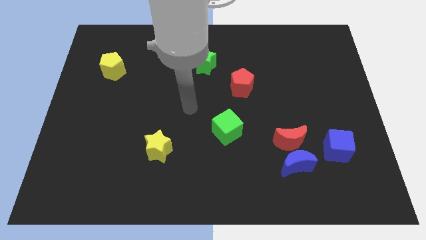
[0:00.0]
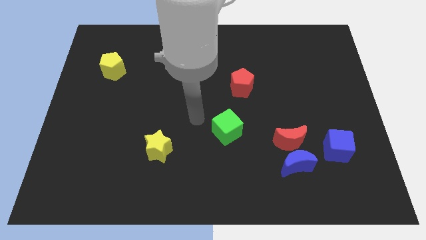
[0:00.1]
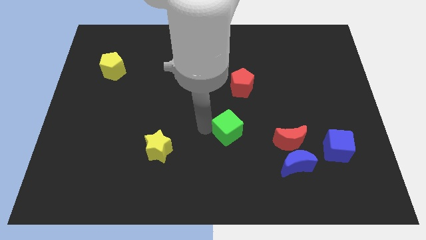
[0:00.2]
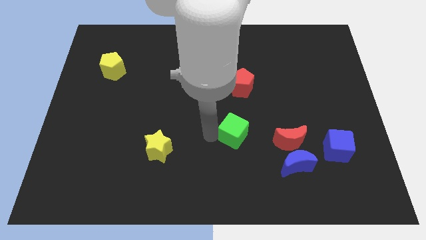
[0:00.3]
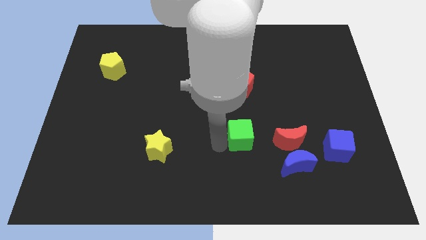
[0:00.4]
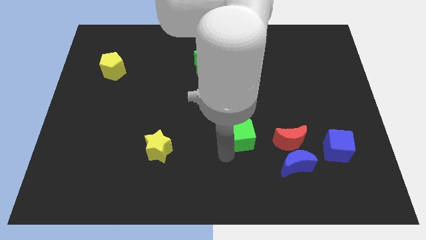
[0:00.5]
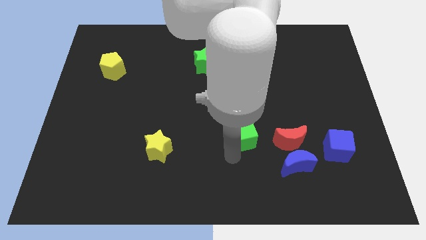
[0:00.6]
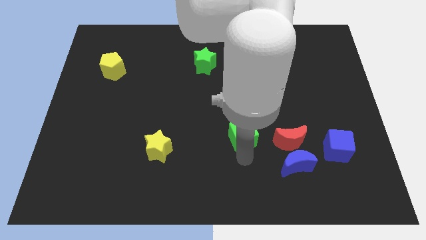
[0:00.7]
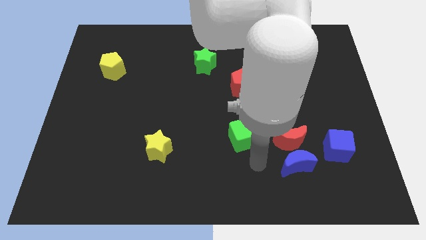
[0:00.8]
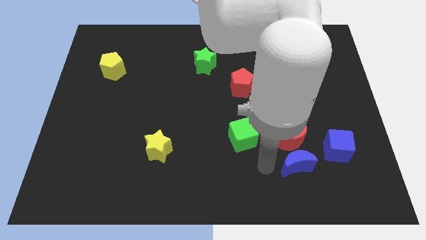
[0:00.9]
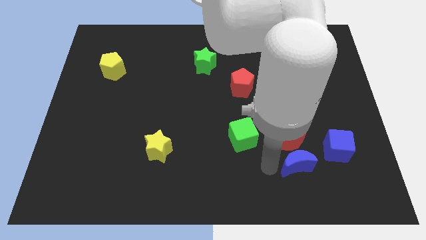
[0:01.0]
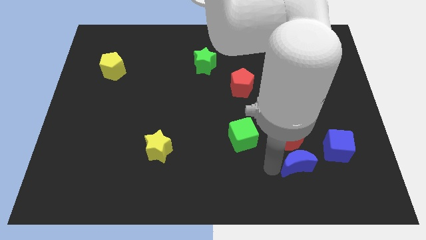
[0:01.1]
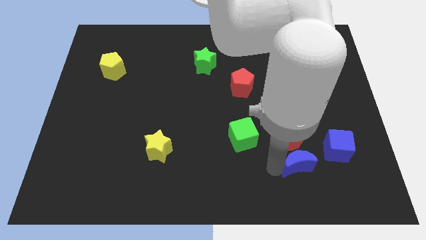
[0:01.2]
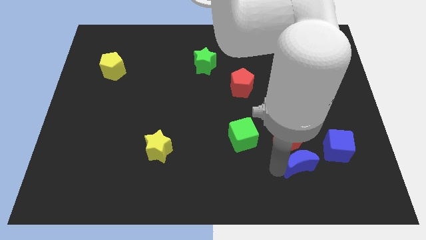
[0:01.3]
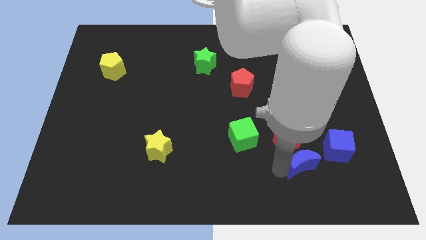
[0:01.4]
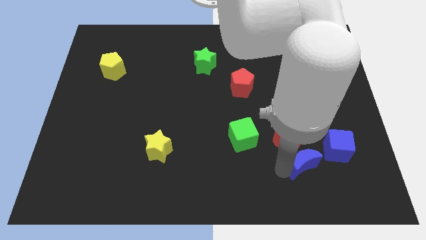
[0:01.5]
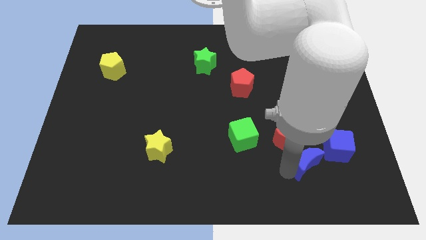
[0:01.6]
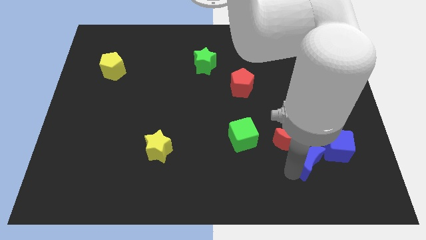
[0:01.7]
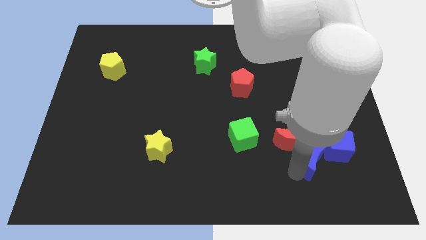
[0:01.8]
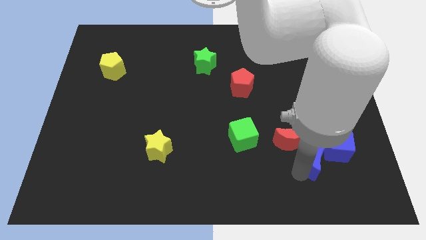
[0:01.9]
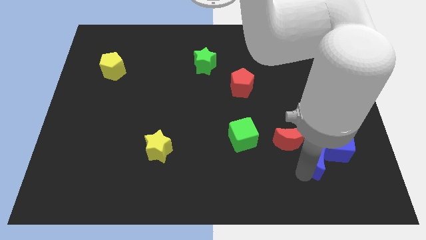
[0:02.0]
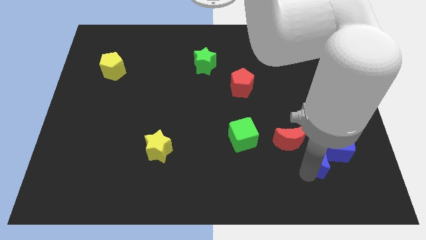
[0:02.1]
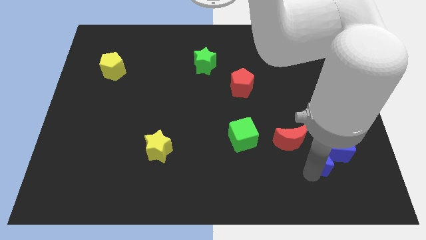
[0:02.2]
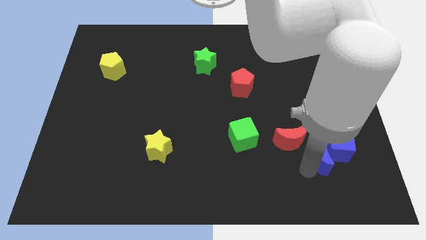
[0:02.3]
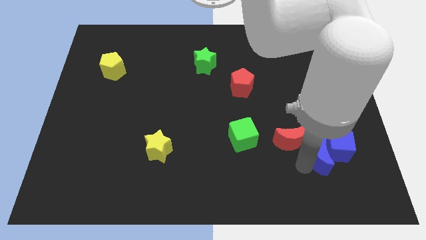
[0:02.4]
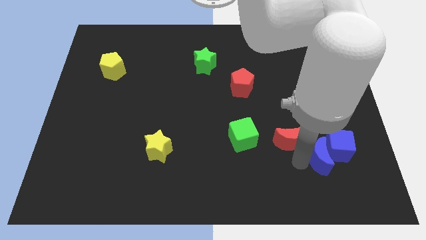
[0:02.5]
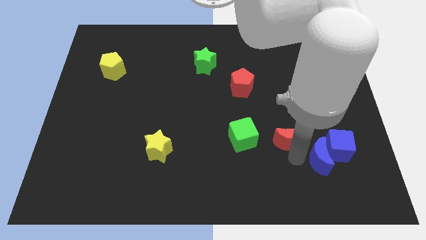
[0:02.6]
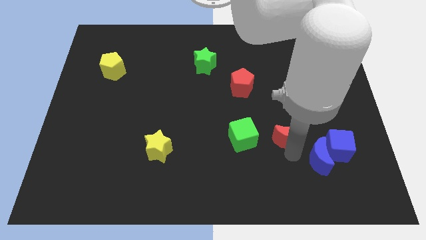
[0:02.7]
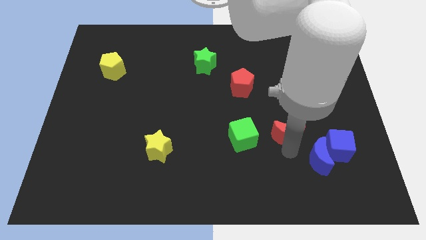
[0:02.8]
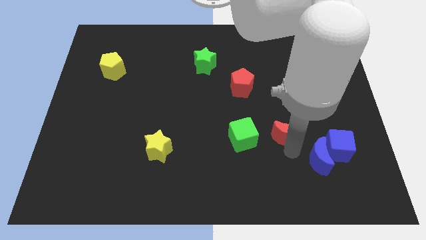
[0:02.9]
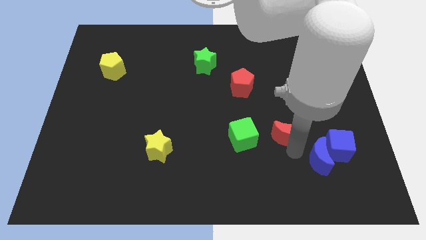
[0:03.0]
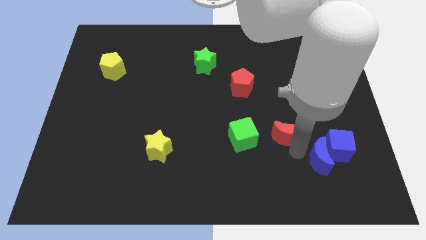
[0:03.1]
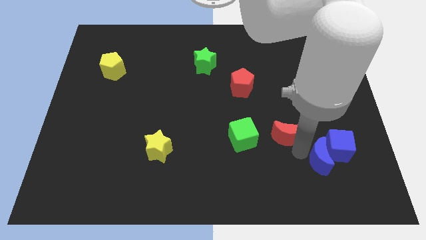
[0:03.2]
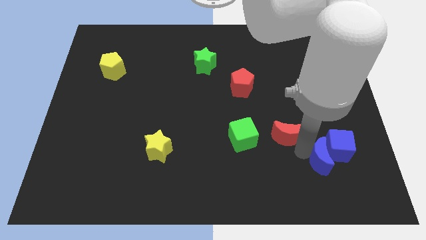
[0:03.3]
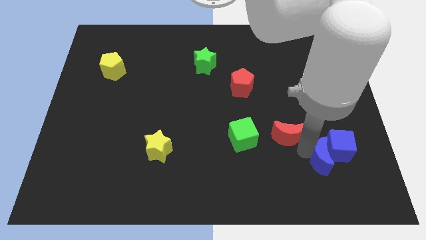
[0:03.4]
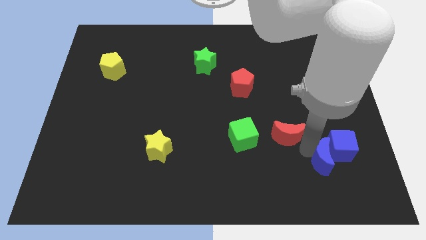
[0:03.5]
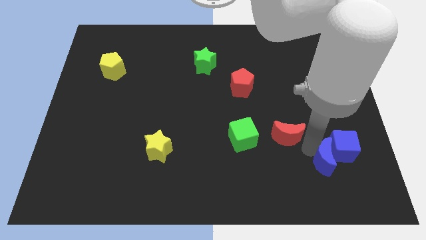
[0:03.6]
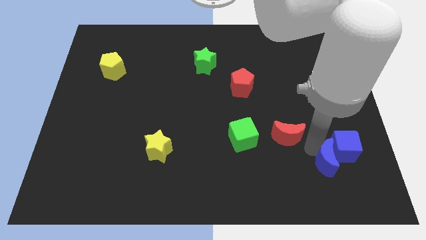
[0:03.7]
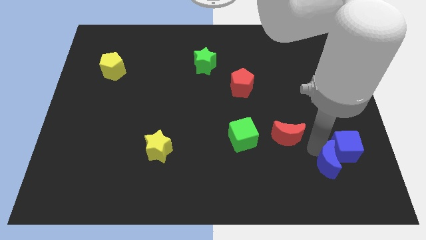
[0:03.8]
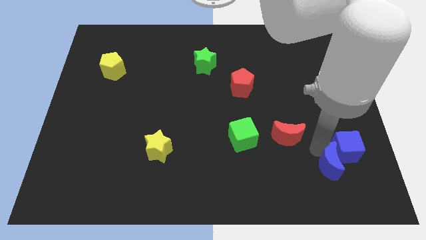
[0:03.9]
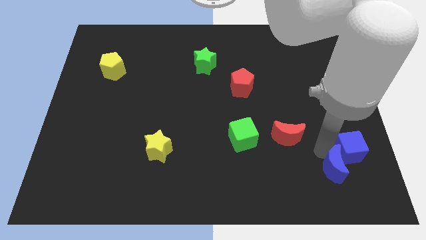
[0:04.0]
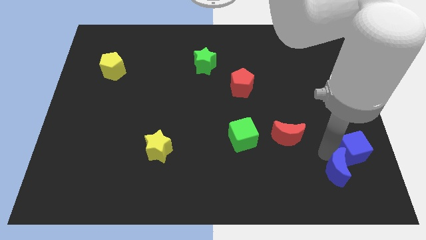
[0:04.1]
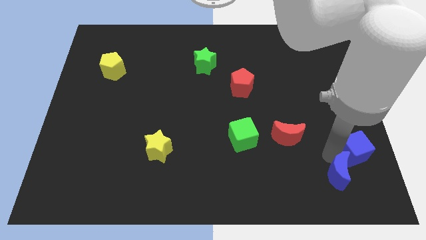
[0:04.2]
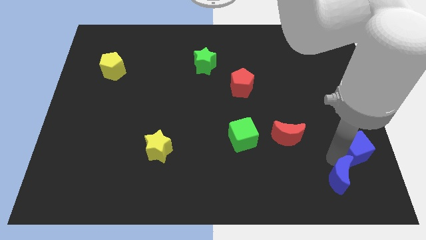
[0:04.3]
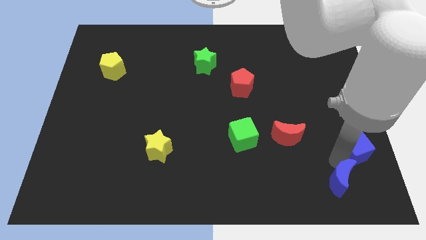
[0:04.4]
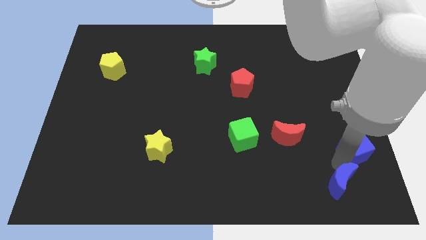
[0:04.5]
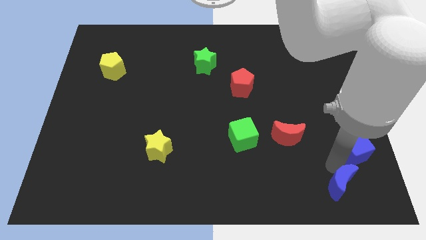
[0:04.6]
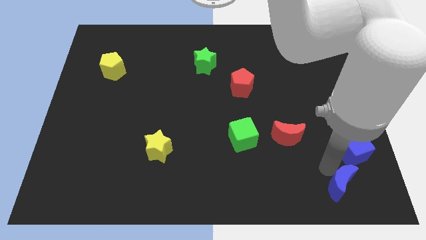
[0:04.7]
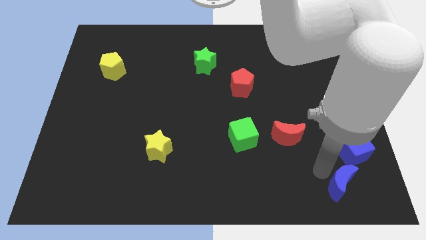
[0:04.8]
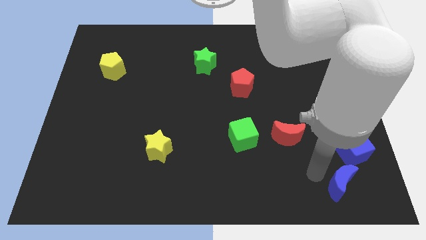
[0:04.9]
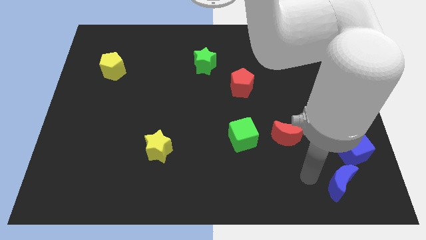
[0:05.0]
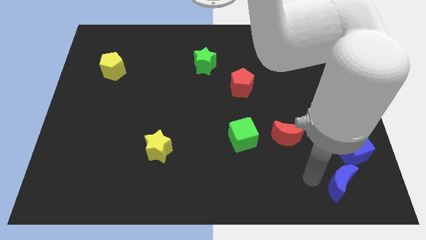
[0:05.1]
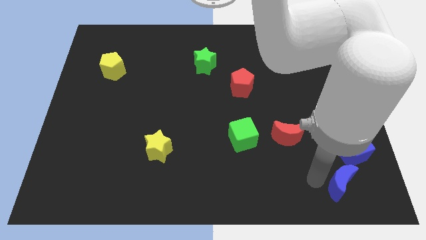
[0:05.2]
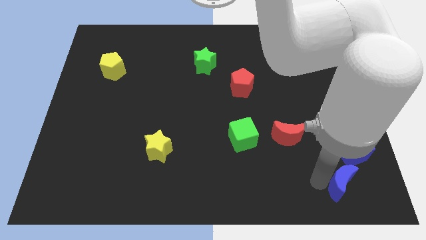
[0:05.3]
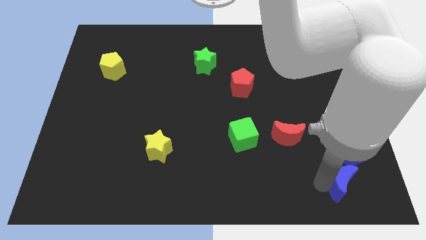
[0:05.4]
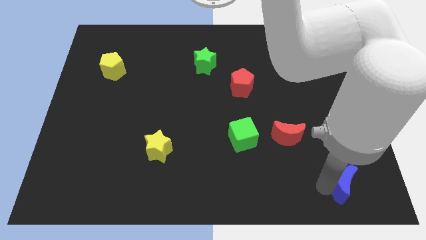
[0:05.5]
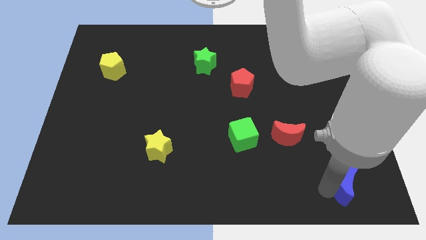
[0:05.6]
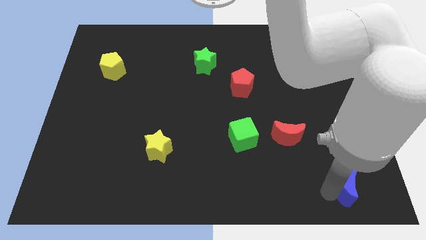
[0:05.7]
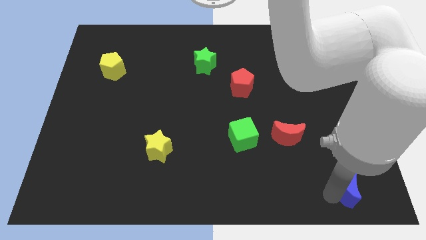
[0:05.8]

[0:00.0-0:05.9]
move the blue moon to the bottom right corner
